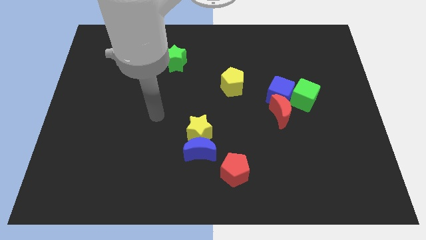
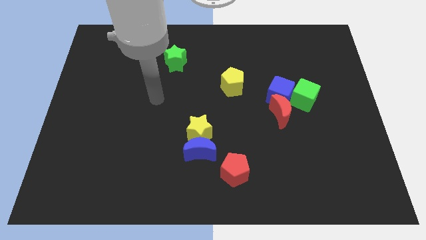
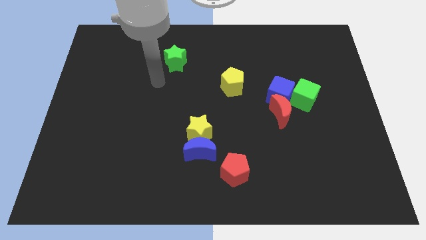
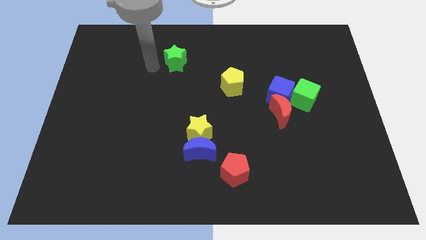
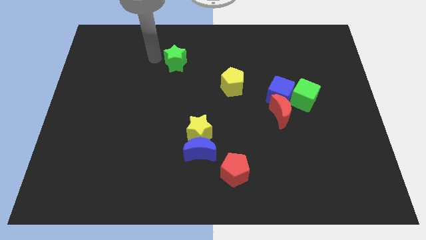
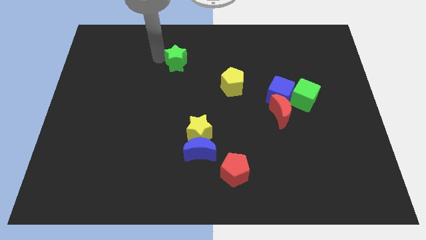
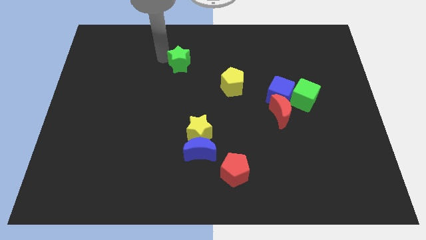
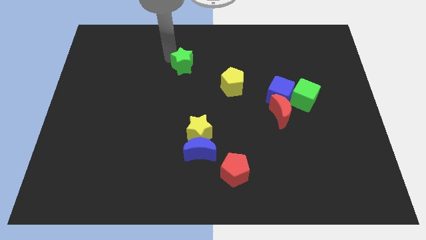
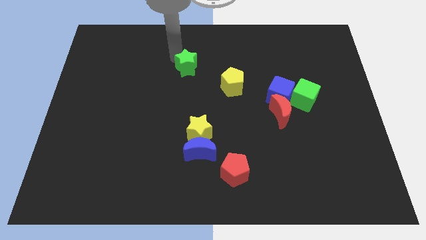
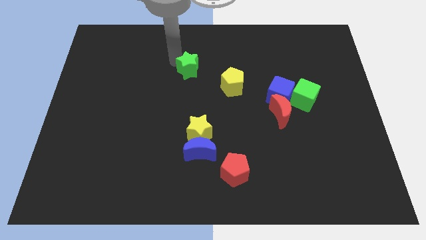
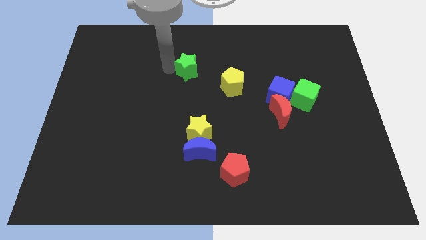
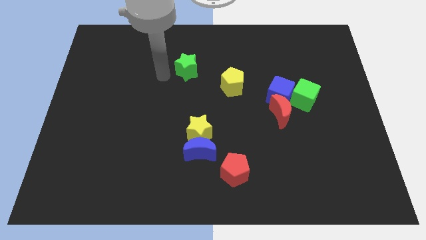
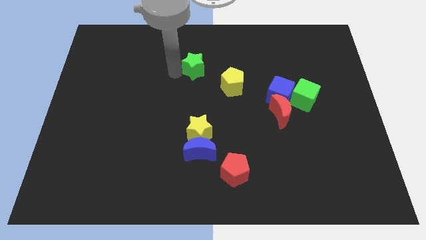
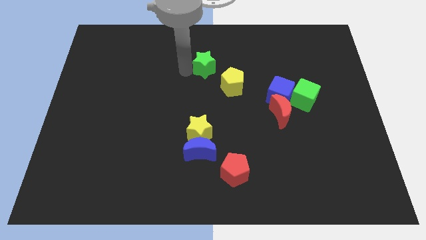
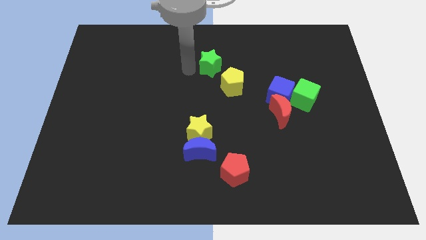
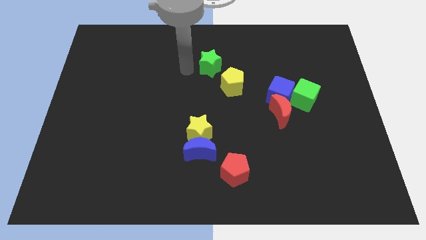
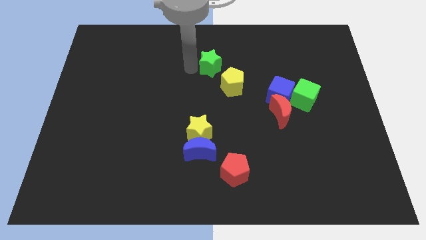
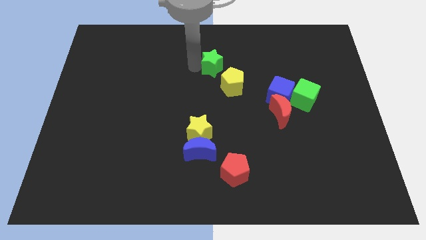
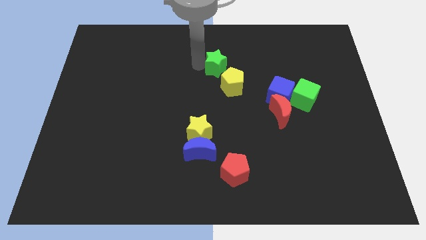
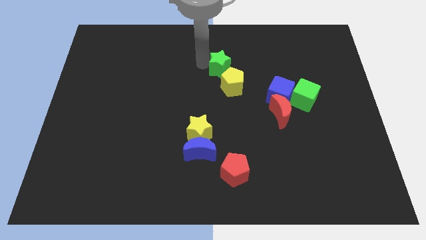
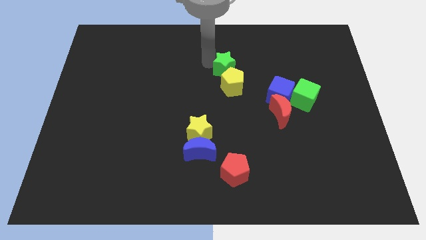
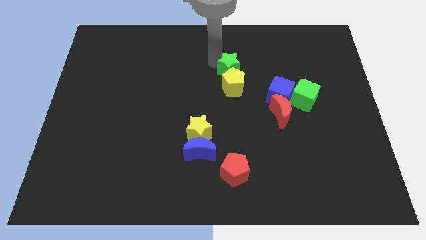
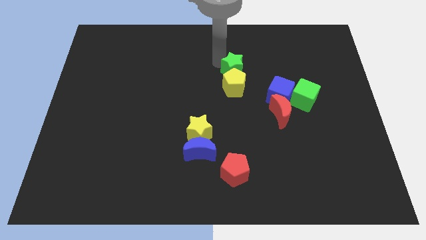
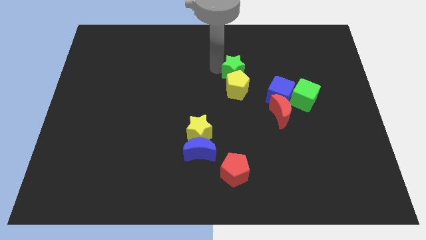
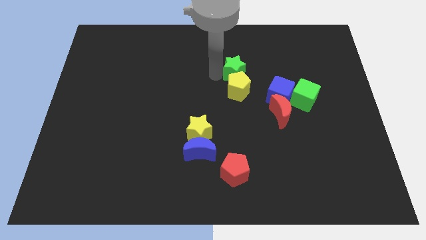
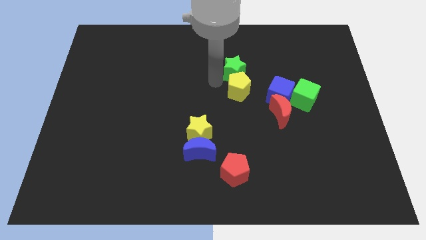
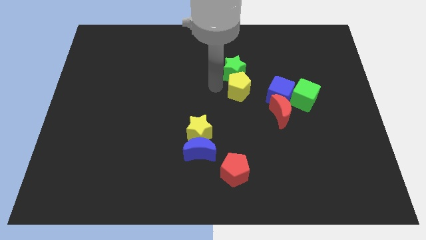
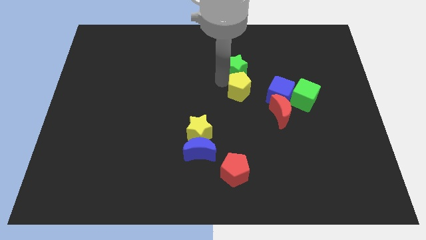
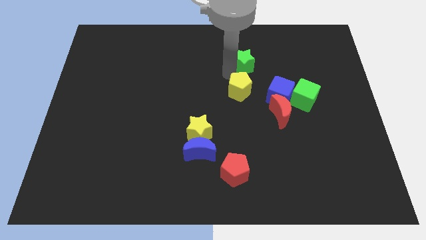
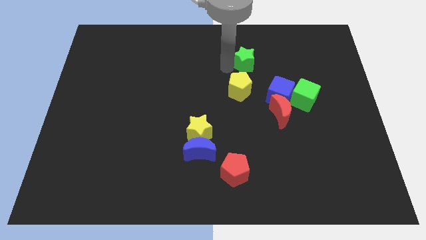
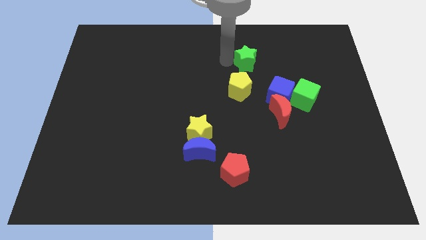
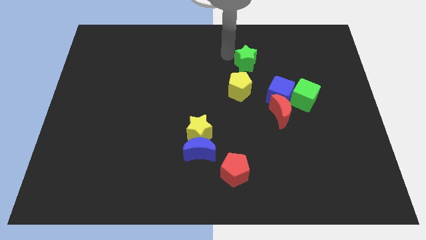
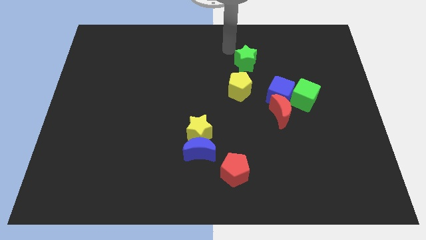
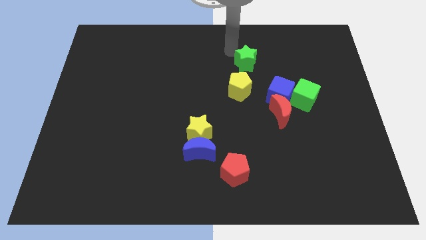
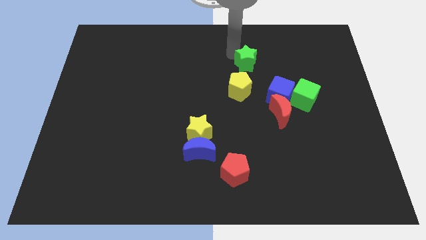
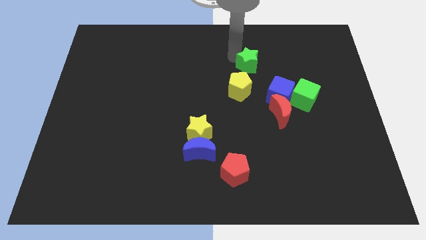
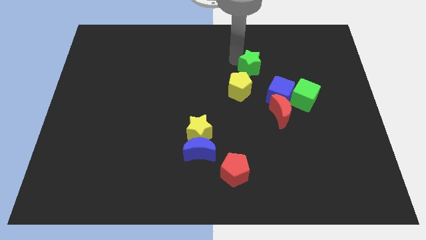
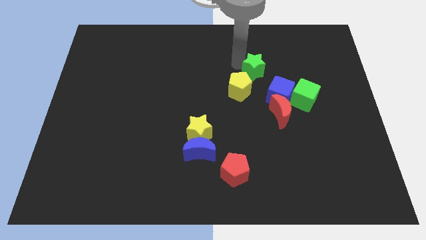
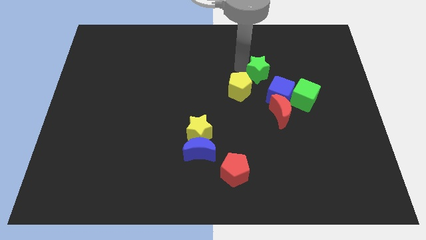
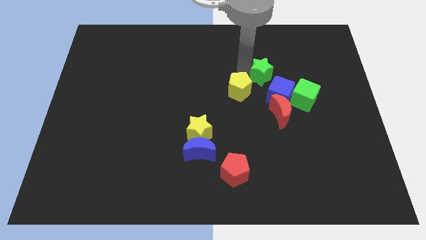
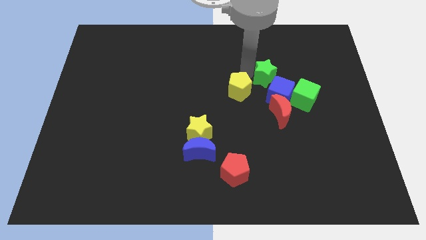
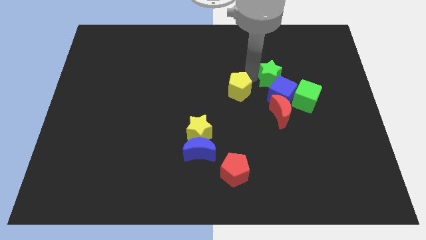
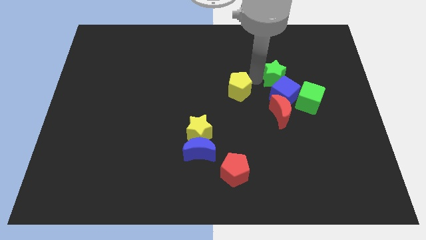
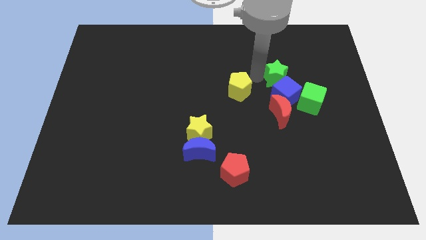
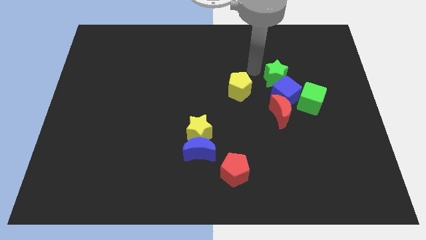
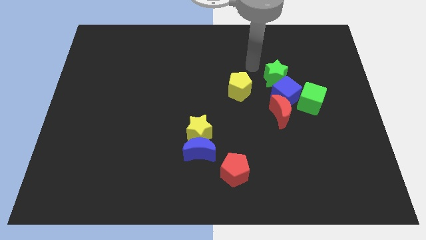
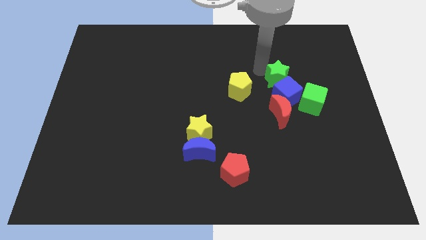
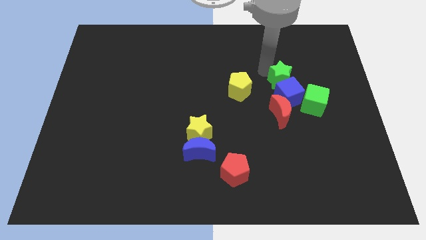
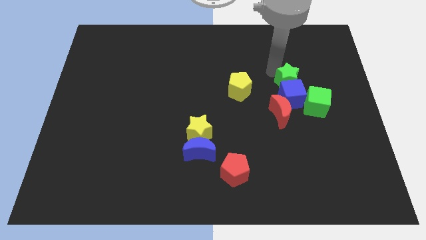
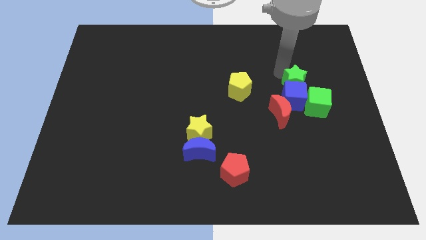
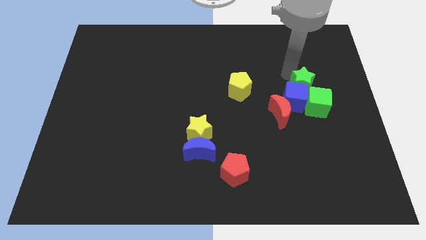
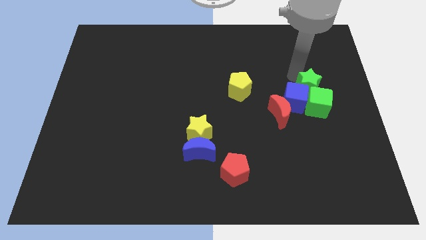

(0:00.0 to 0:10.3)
put the green star towards the green cube

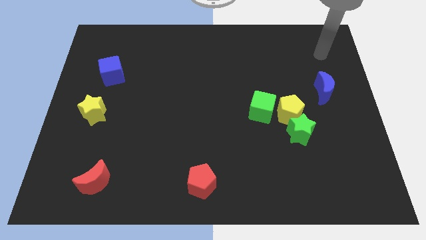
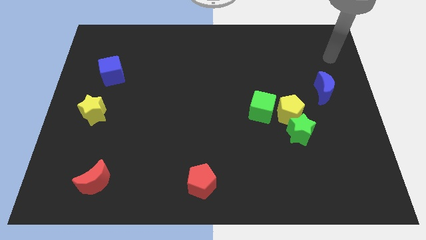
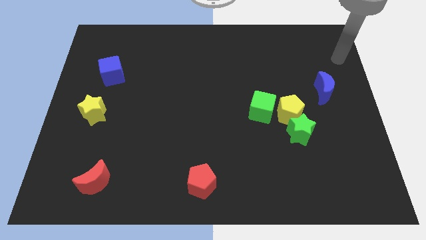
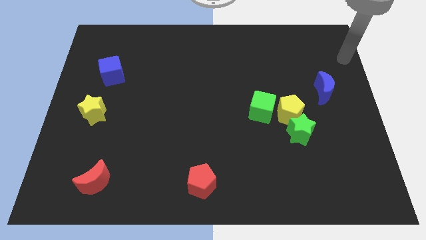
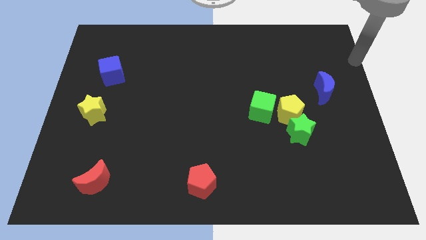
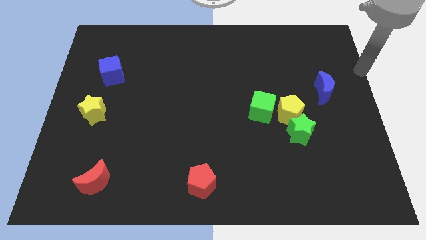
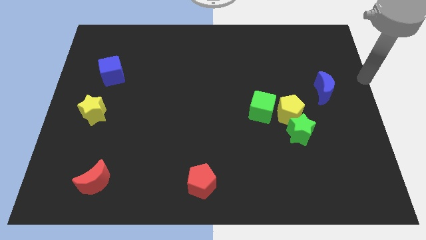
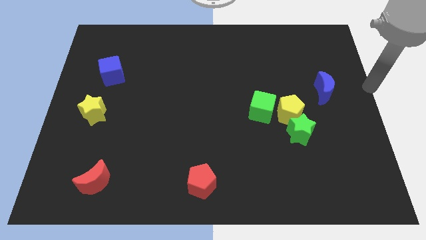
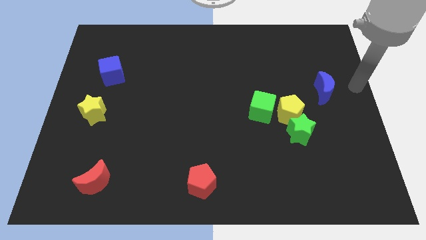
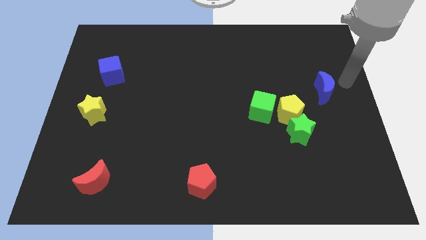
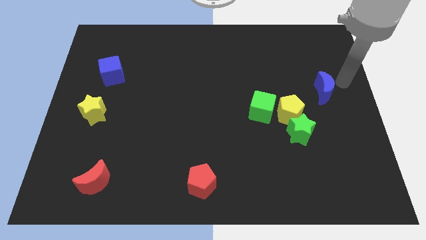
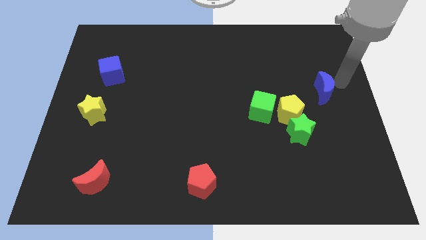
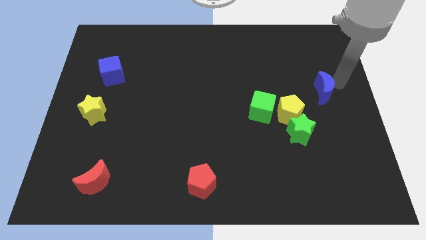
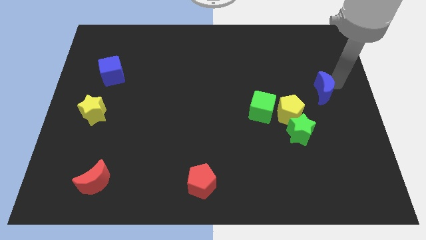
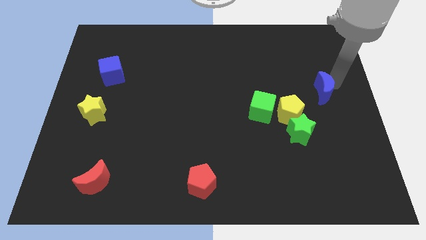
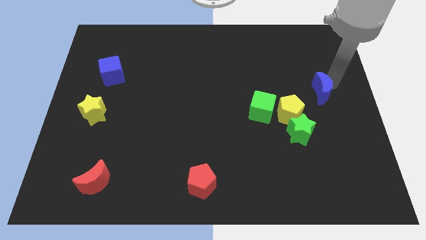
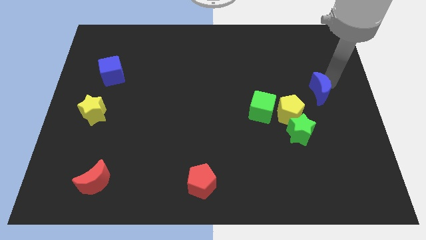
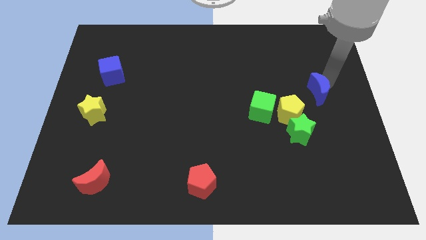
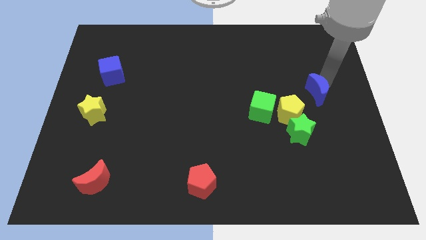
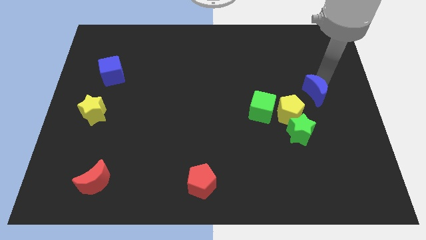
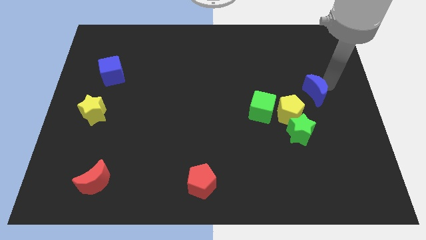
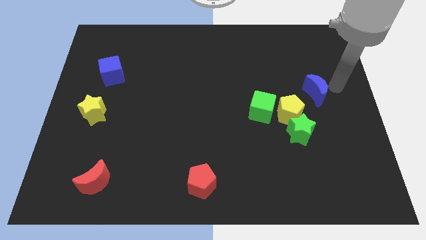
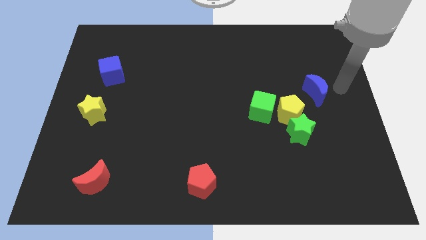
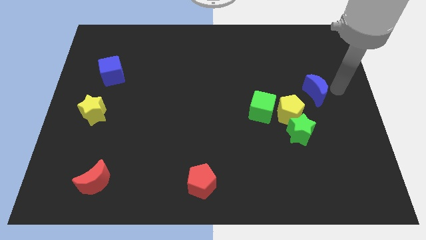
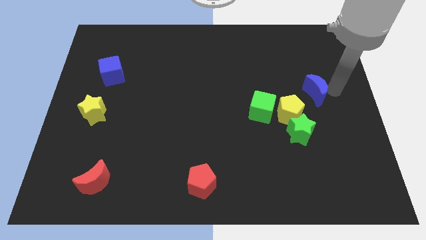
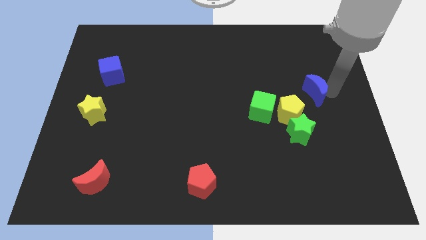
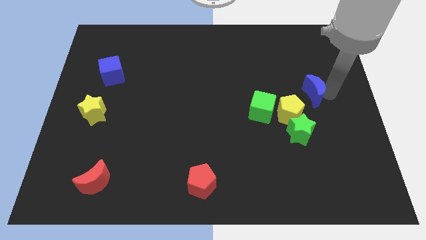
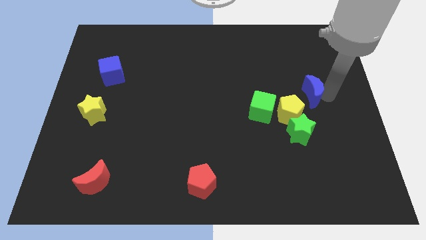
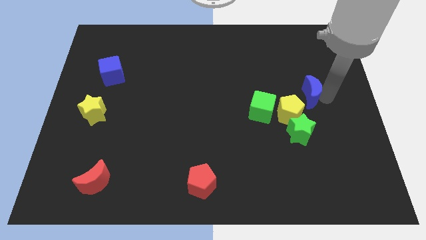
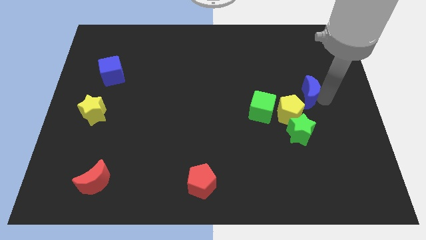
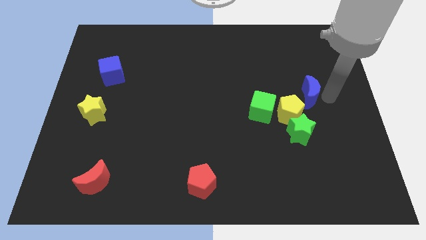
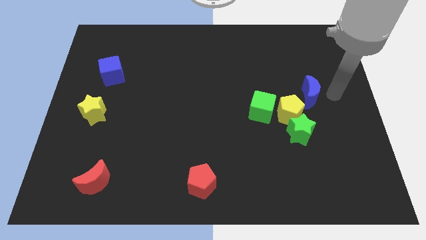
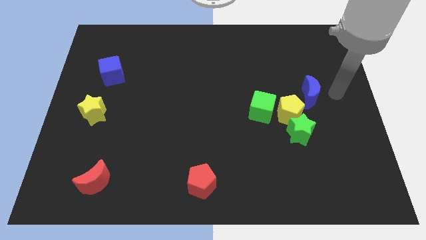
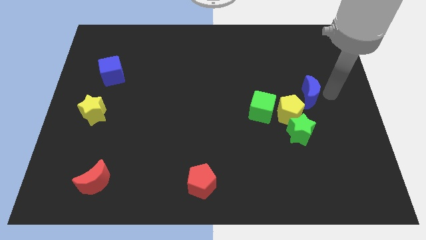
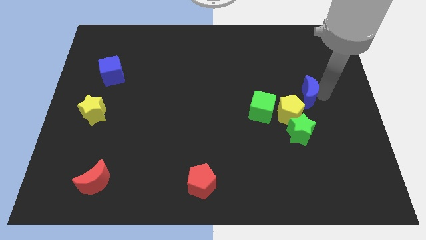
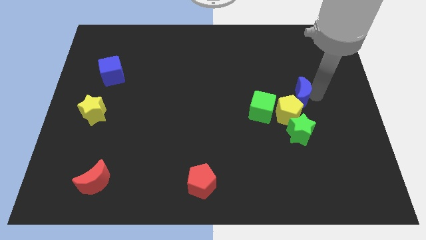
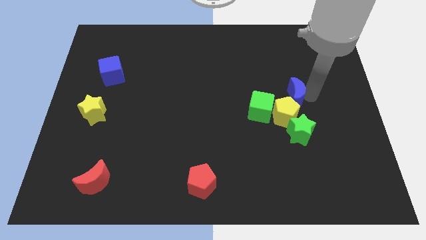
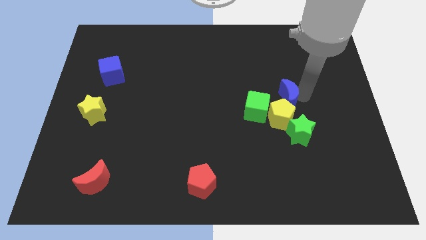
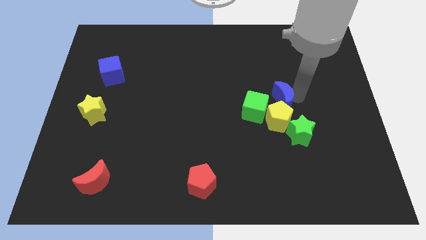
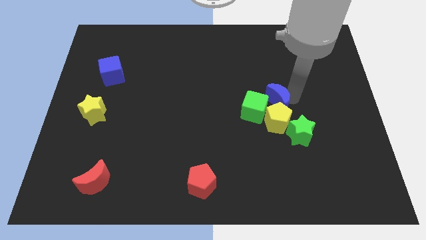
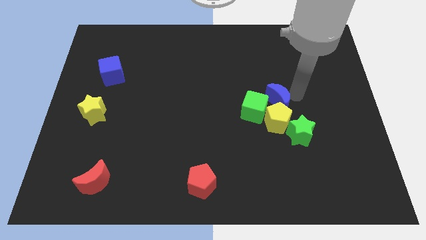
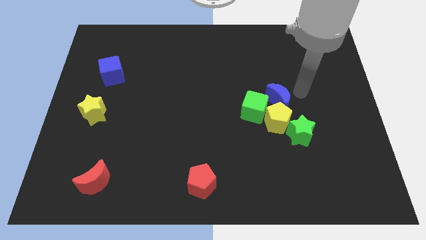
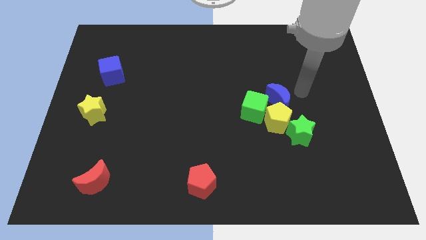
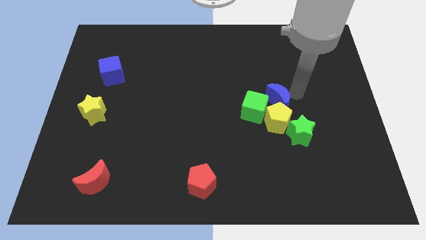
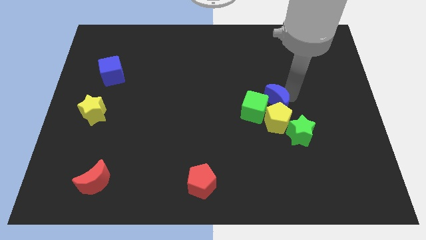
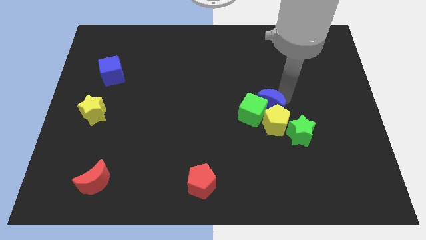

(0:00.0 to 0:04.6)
put the blue moon next to the green cube
